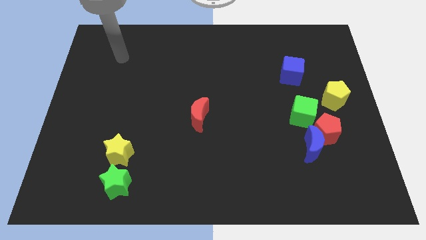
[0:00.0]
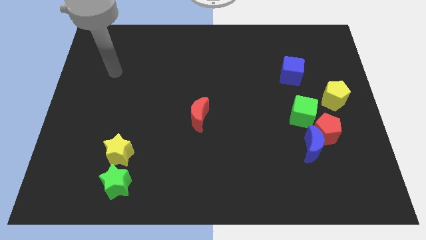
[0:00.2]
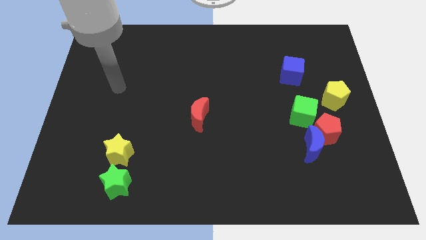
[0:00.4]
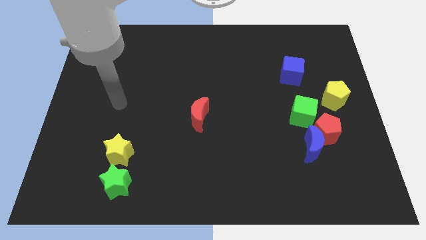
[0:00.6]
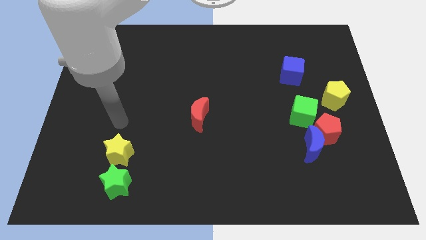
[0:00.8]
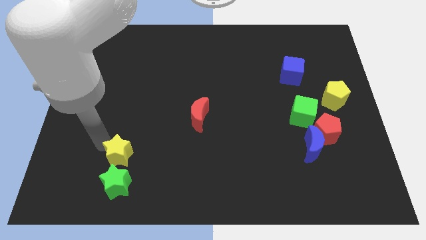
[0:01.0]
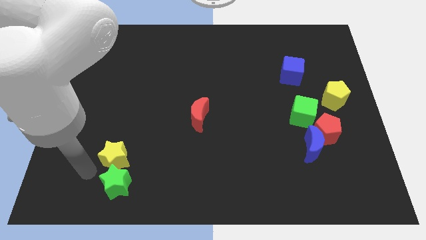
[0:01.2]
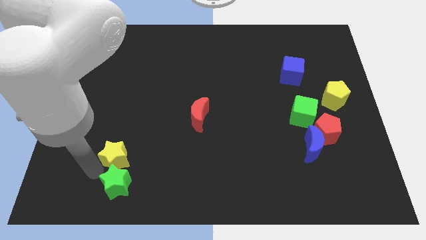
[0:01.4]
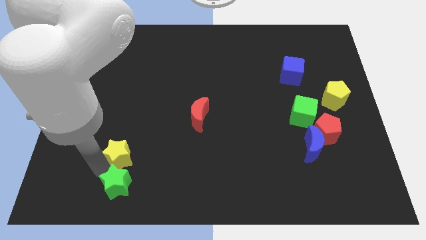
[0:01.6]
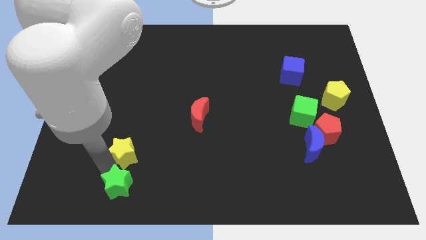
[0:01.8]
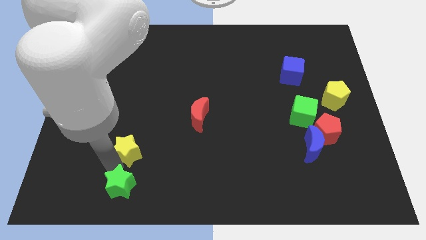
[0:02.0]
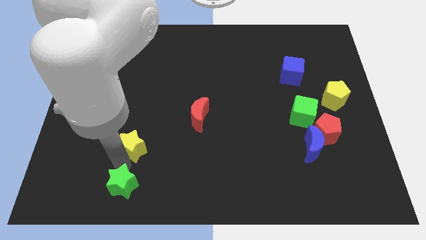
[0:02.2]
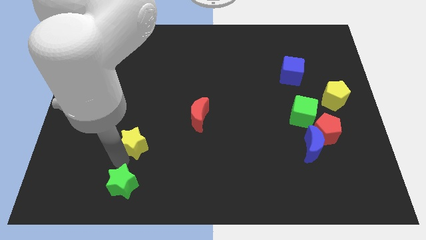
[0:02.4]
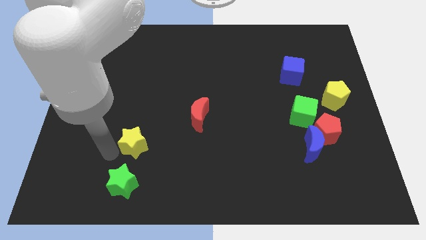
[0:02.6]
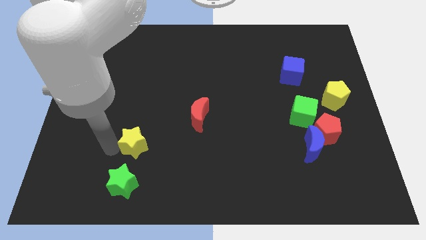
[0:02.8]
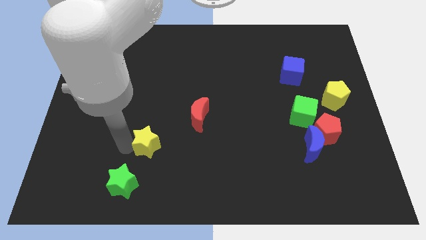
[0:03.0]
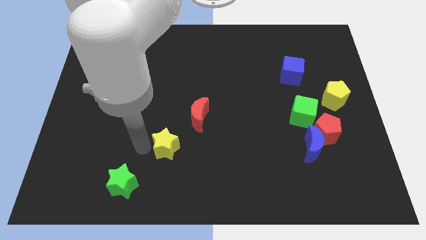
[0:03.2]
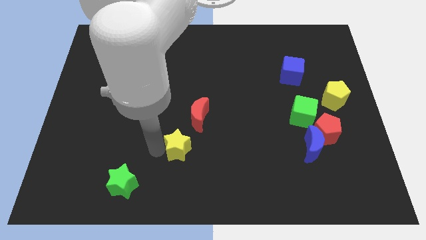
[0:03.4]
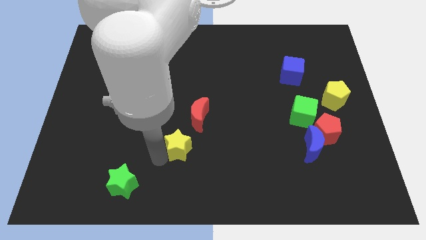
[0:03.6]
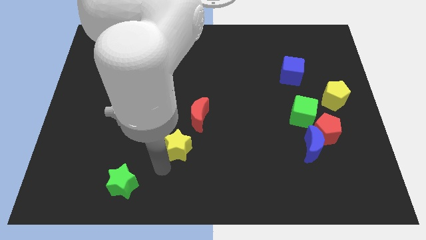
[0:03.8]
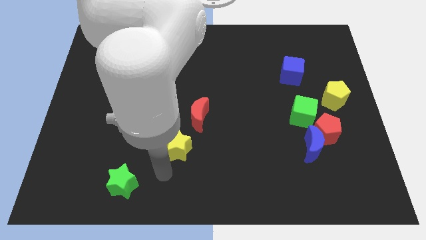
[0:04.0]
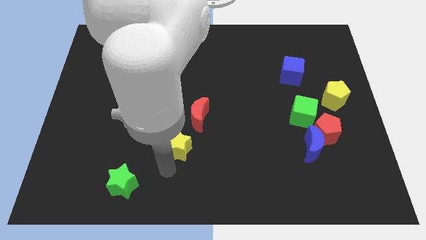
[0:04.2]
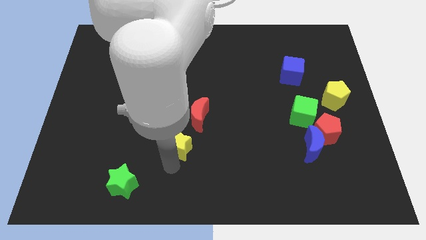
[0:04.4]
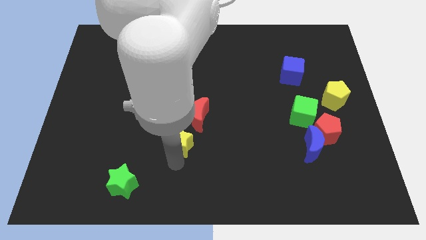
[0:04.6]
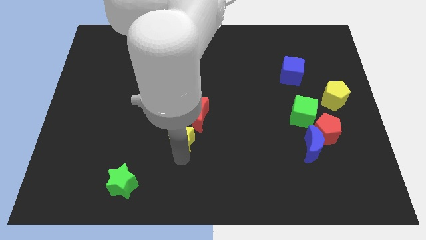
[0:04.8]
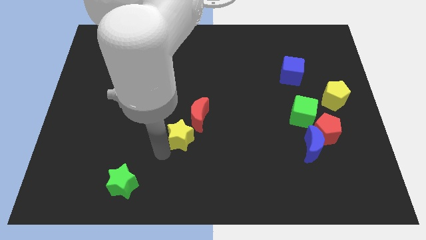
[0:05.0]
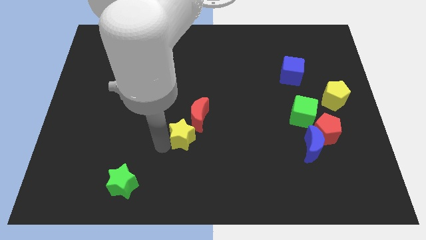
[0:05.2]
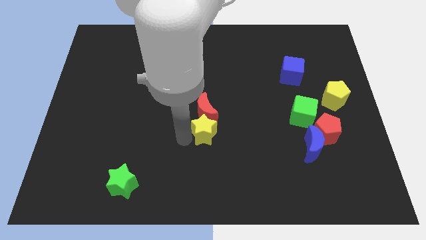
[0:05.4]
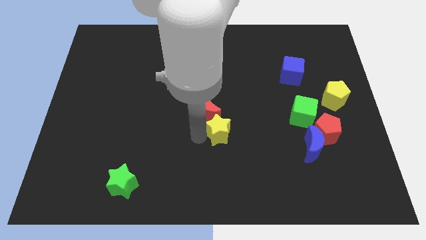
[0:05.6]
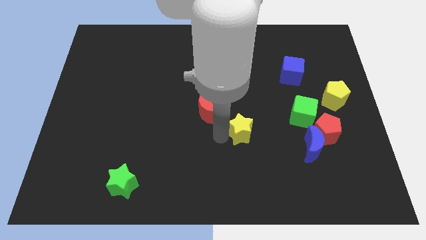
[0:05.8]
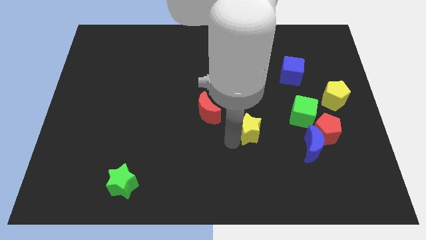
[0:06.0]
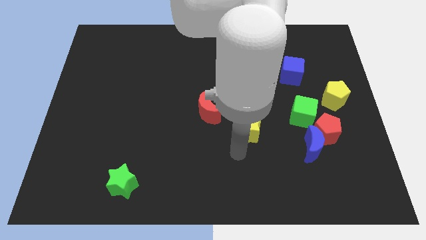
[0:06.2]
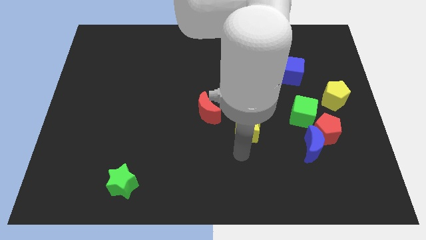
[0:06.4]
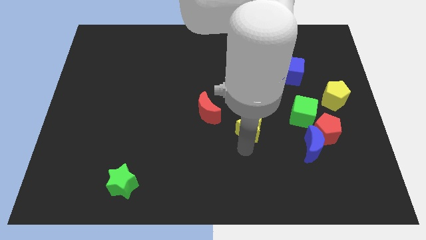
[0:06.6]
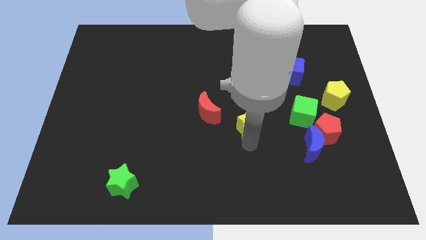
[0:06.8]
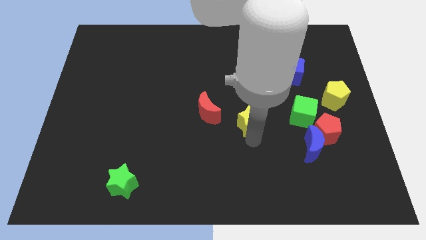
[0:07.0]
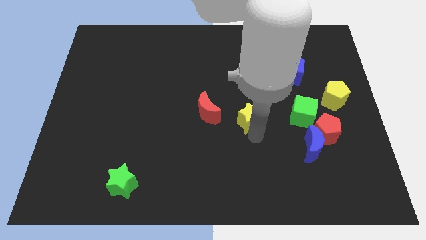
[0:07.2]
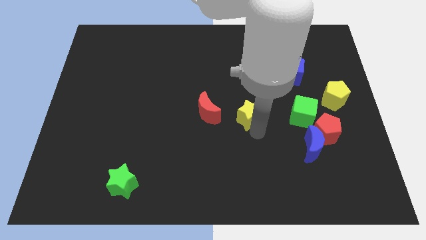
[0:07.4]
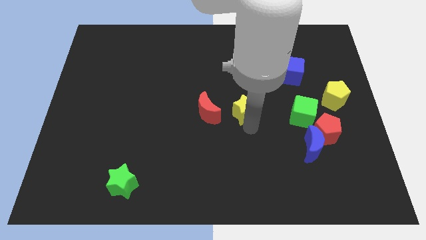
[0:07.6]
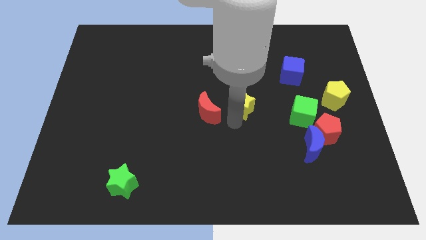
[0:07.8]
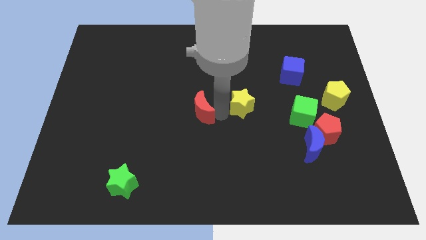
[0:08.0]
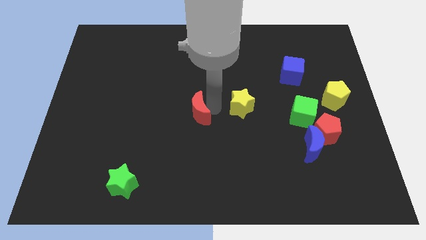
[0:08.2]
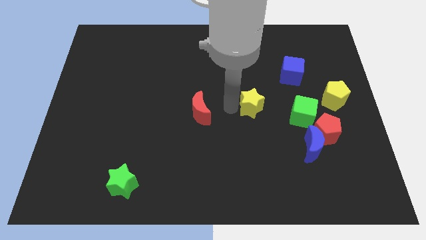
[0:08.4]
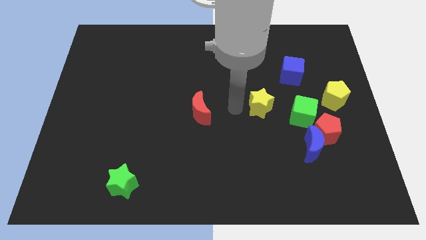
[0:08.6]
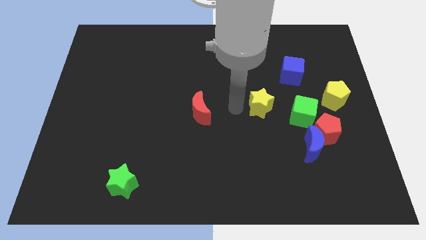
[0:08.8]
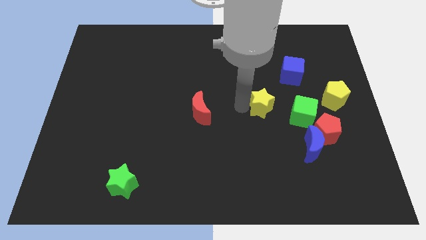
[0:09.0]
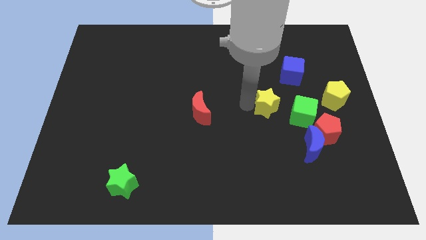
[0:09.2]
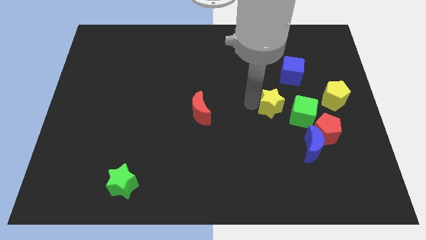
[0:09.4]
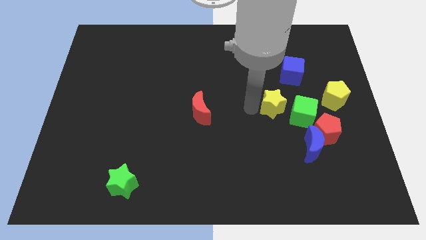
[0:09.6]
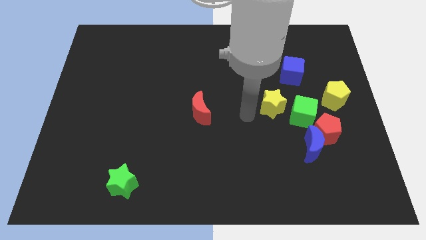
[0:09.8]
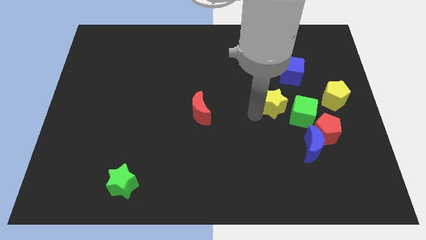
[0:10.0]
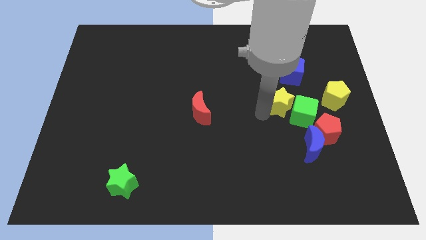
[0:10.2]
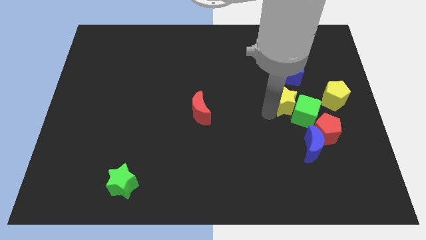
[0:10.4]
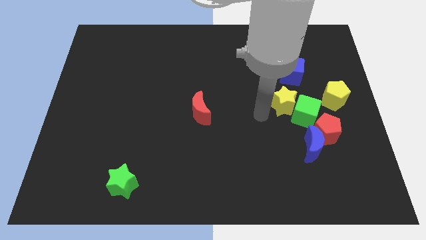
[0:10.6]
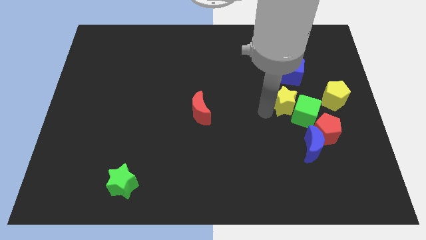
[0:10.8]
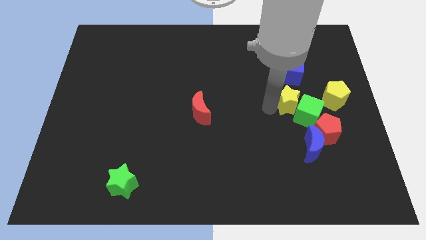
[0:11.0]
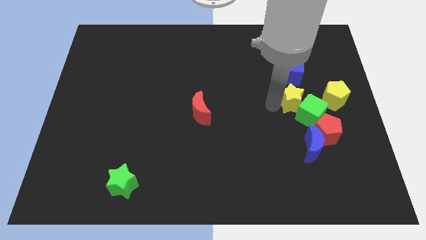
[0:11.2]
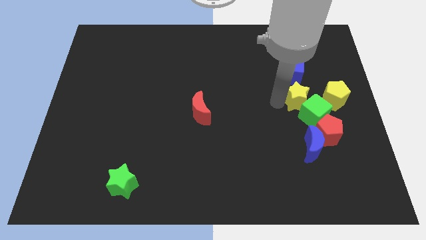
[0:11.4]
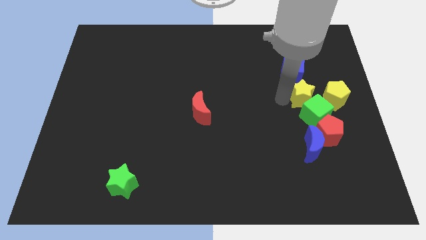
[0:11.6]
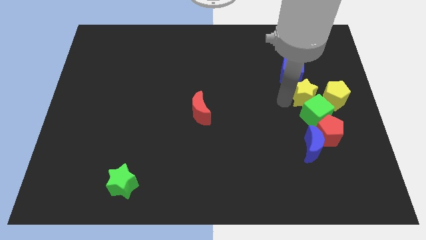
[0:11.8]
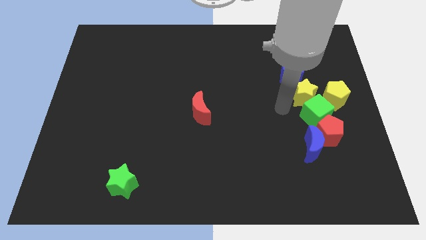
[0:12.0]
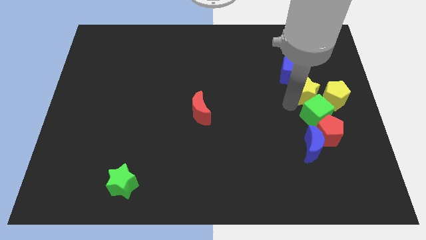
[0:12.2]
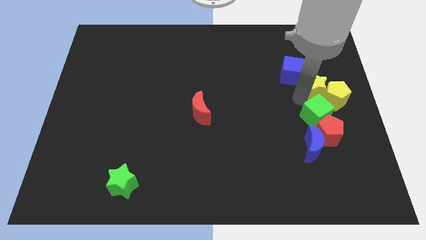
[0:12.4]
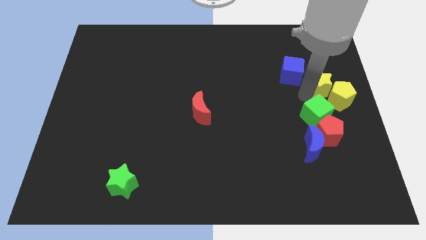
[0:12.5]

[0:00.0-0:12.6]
slide the yellow star to the right side of the board
